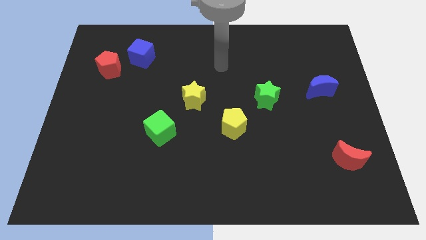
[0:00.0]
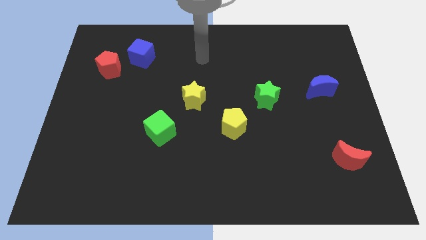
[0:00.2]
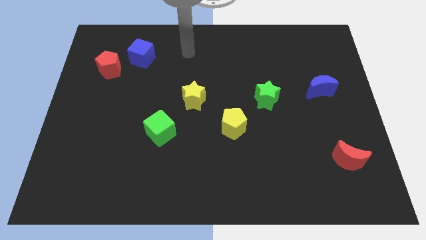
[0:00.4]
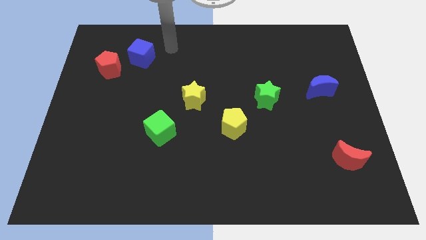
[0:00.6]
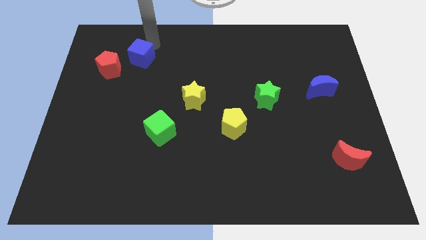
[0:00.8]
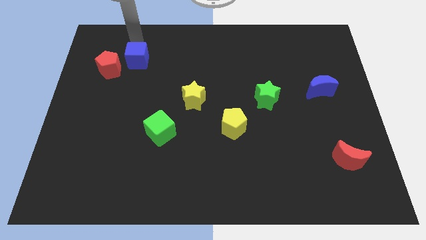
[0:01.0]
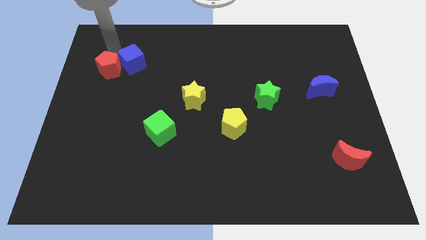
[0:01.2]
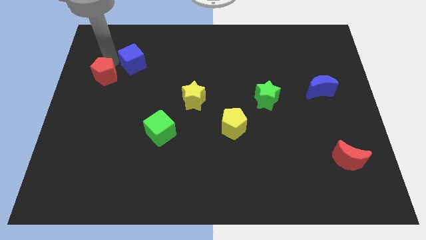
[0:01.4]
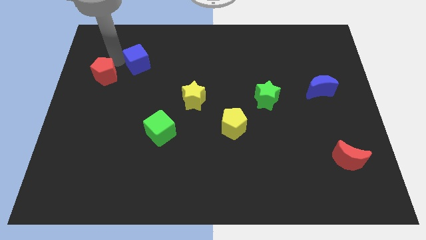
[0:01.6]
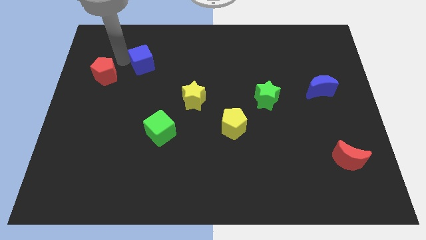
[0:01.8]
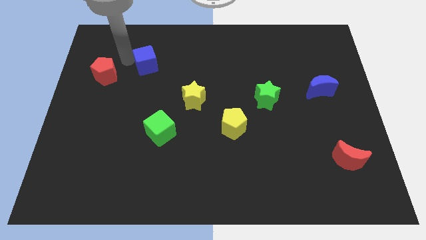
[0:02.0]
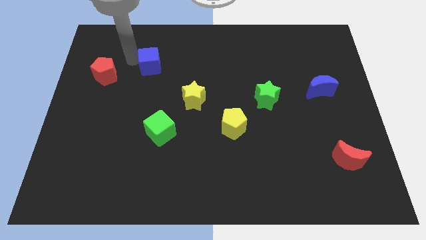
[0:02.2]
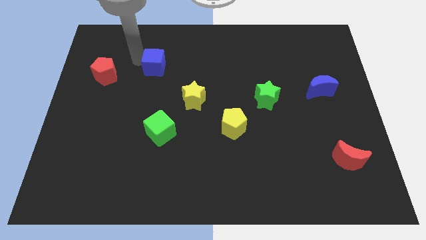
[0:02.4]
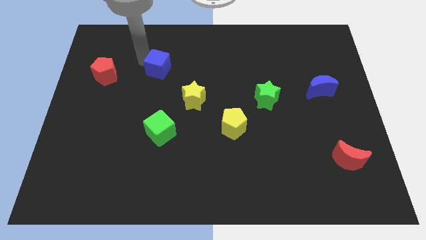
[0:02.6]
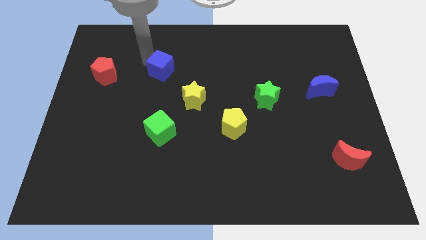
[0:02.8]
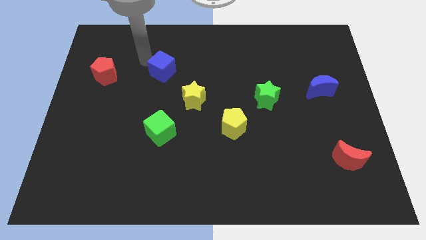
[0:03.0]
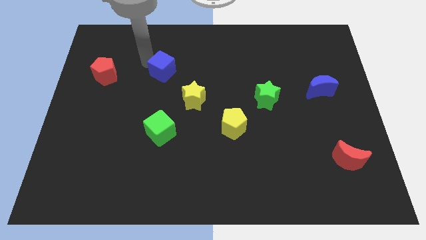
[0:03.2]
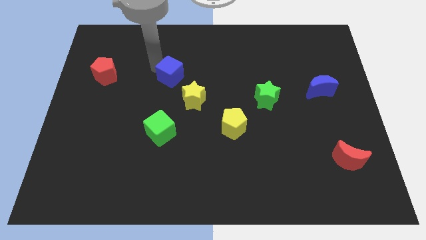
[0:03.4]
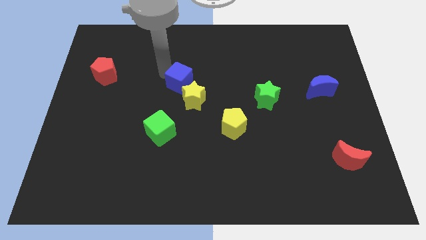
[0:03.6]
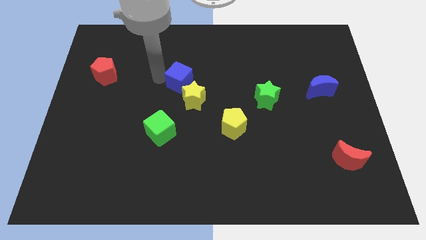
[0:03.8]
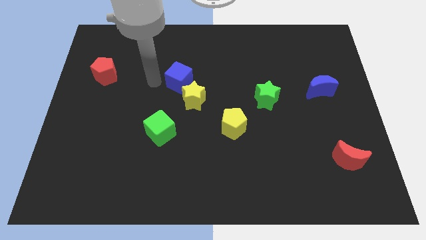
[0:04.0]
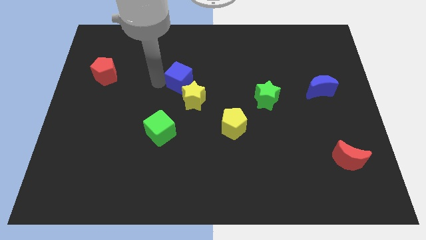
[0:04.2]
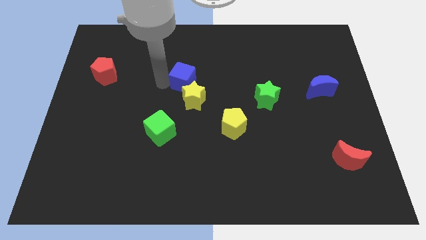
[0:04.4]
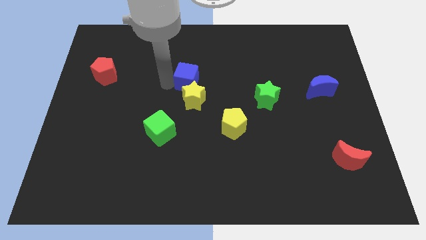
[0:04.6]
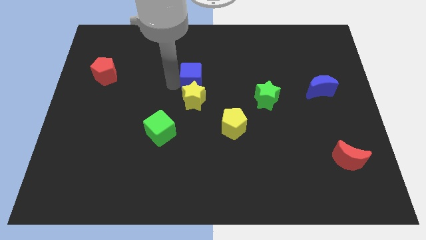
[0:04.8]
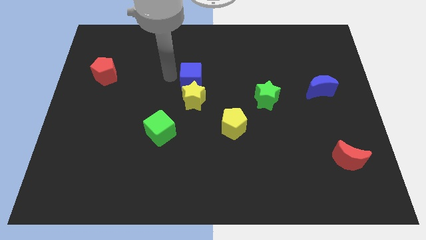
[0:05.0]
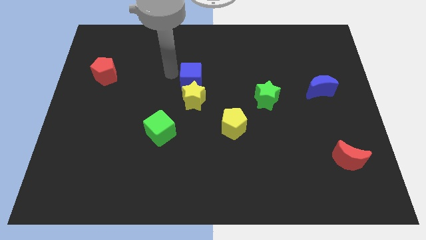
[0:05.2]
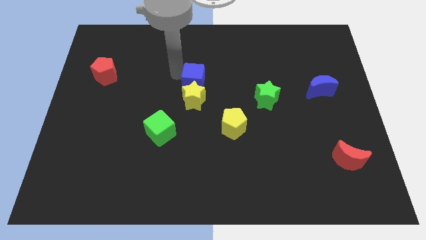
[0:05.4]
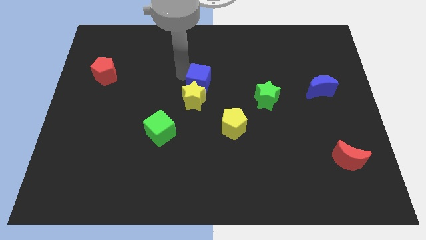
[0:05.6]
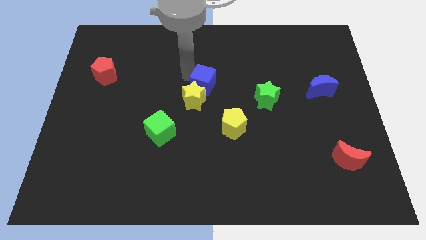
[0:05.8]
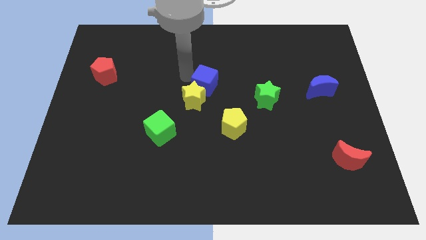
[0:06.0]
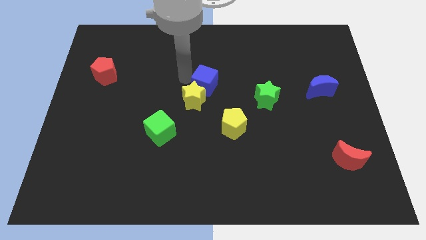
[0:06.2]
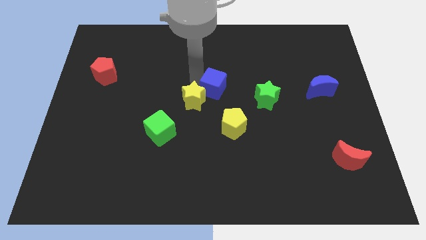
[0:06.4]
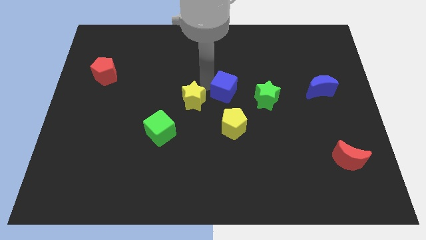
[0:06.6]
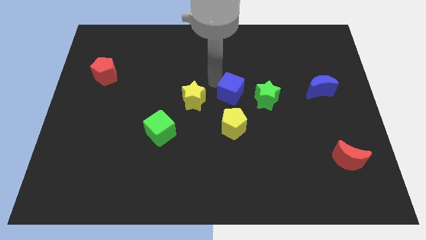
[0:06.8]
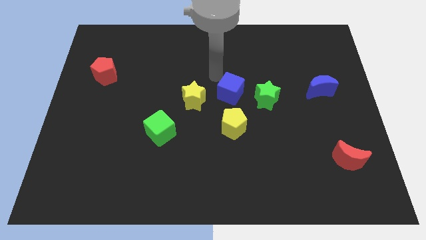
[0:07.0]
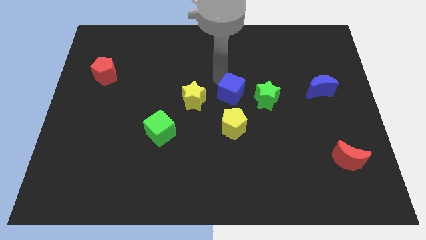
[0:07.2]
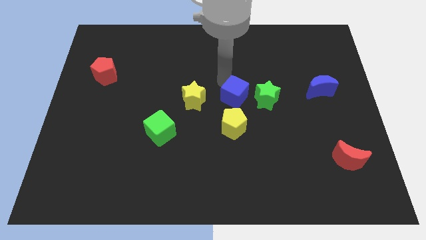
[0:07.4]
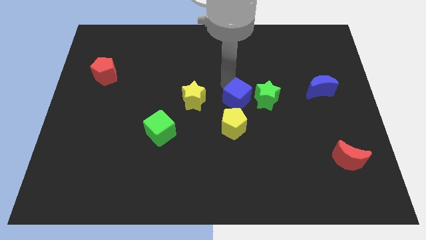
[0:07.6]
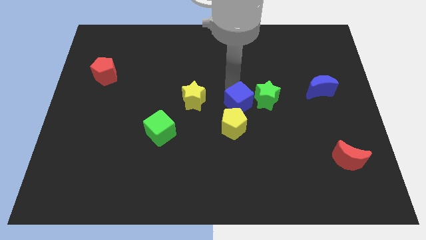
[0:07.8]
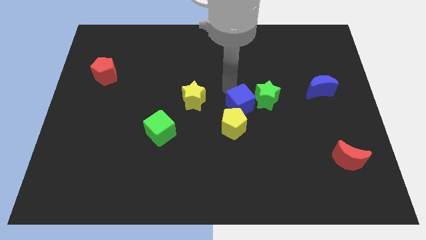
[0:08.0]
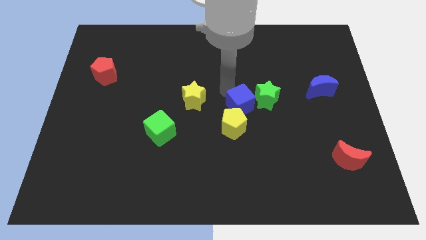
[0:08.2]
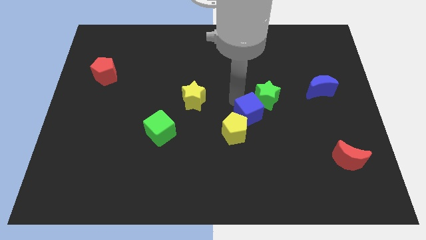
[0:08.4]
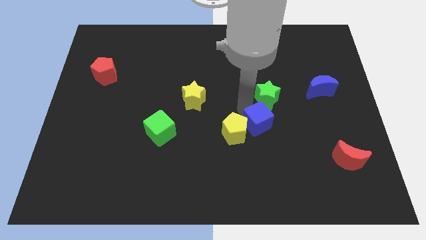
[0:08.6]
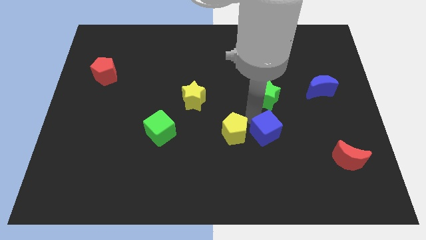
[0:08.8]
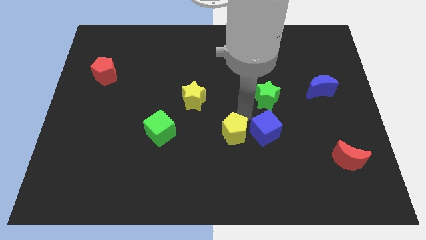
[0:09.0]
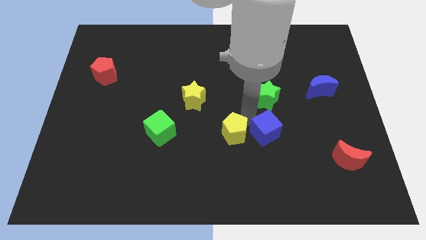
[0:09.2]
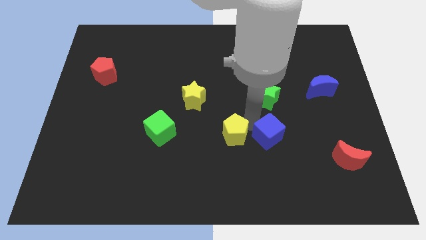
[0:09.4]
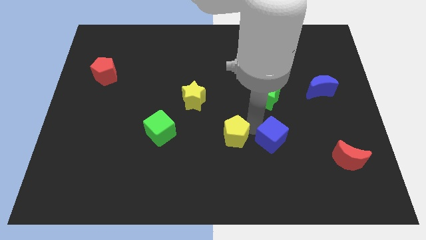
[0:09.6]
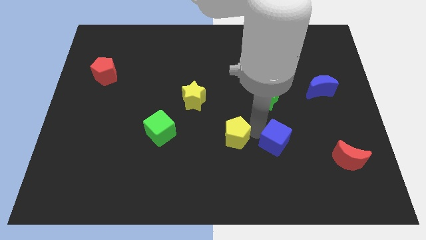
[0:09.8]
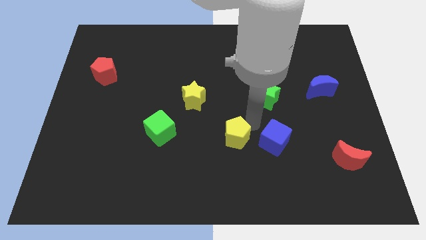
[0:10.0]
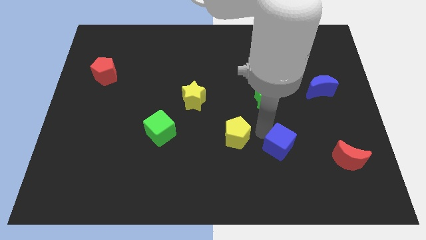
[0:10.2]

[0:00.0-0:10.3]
push the blue cube left of the red moon

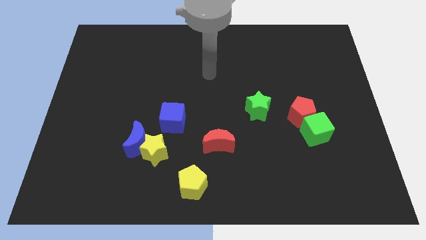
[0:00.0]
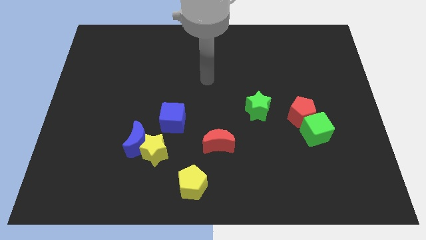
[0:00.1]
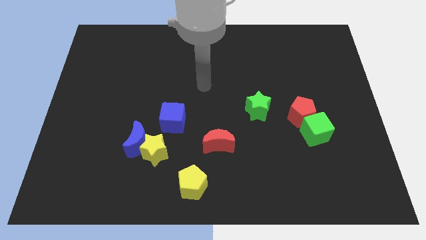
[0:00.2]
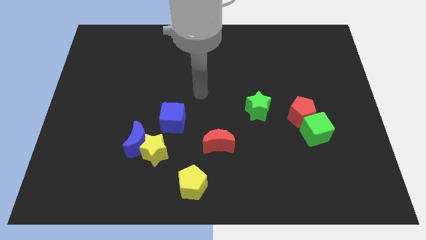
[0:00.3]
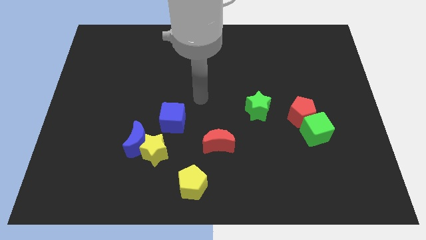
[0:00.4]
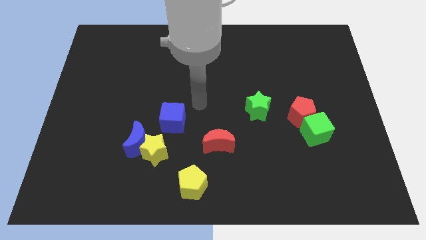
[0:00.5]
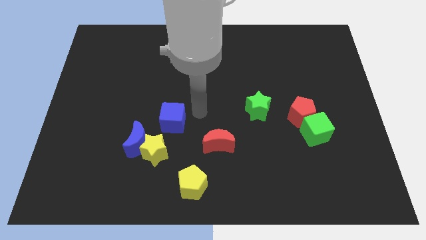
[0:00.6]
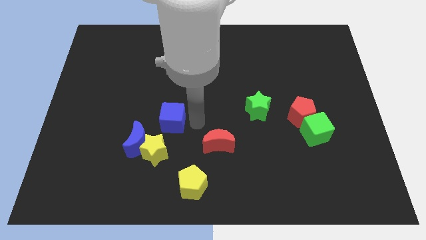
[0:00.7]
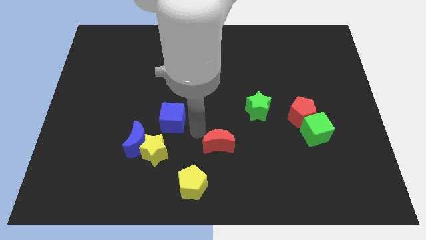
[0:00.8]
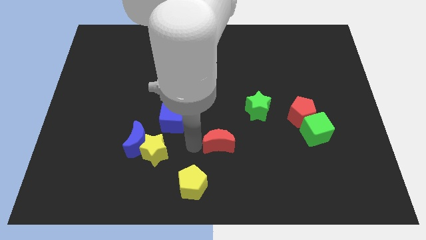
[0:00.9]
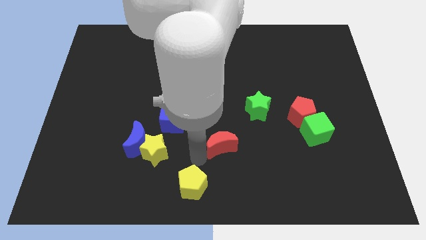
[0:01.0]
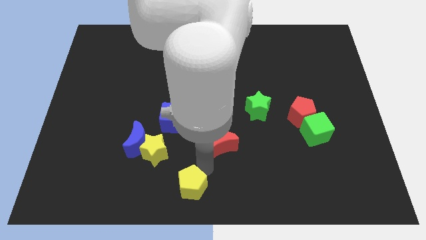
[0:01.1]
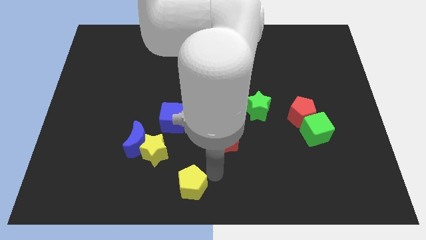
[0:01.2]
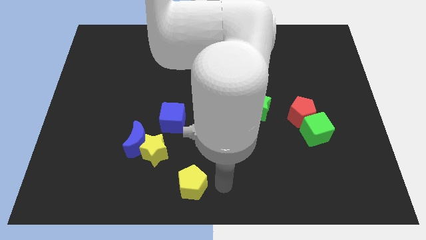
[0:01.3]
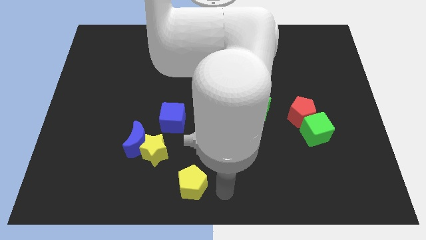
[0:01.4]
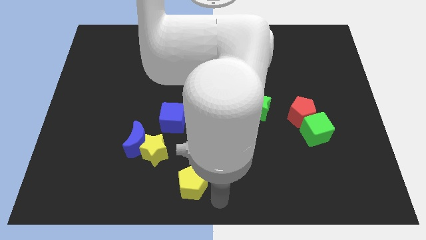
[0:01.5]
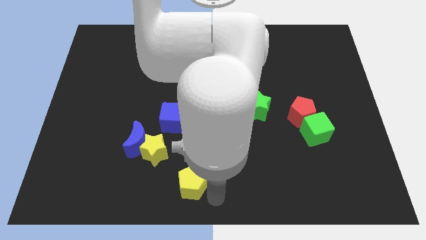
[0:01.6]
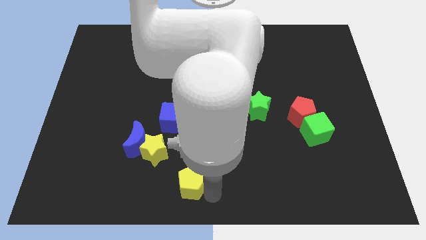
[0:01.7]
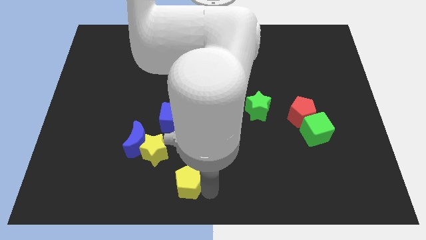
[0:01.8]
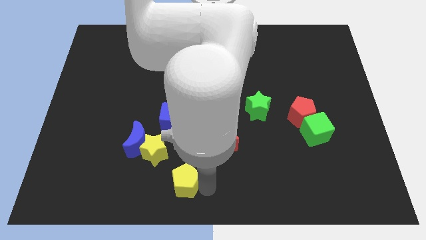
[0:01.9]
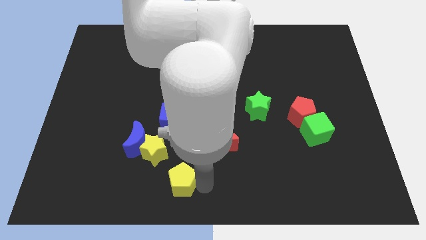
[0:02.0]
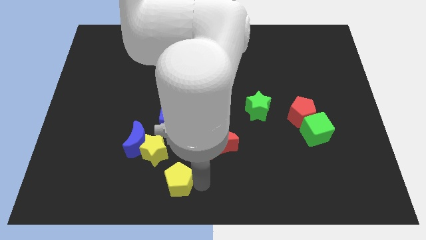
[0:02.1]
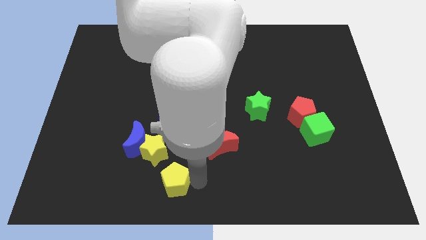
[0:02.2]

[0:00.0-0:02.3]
slide the yellow pentagon diagonally down and to the right of the blue moon
